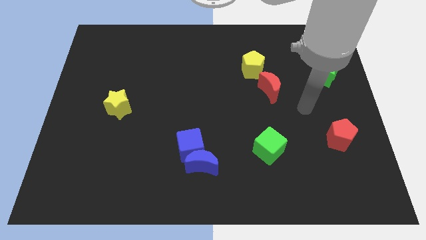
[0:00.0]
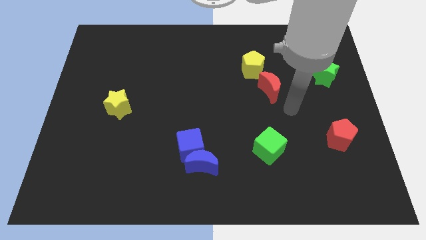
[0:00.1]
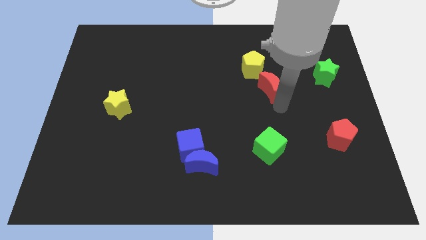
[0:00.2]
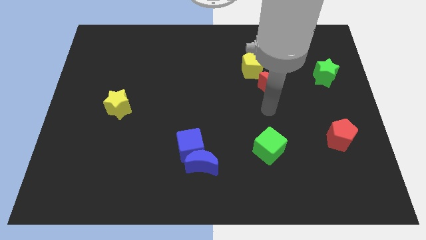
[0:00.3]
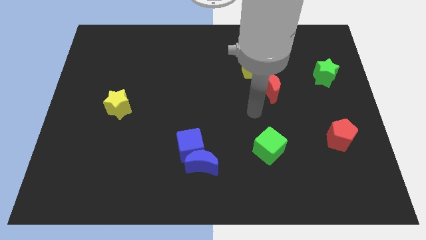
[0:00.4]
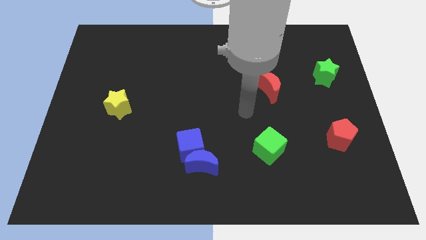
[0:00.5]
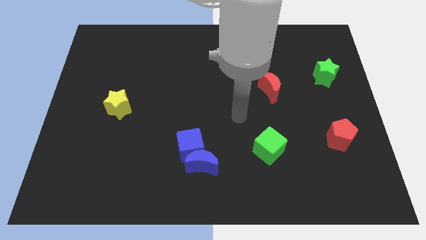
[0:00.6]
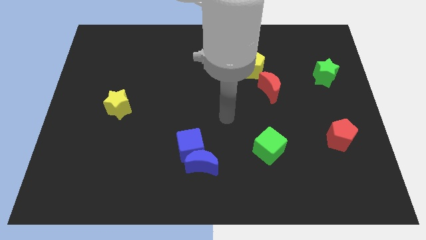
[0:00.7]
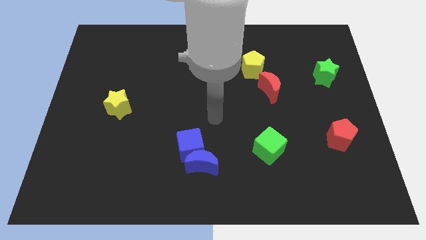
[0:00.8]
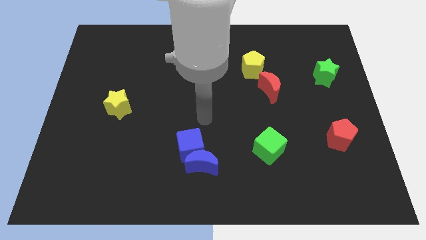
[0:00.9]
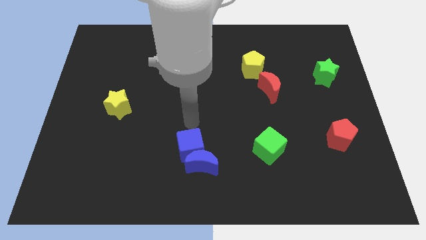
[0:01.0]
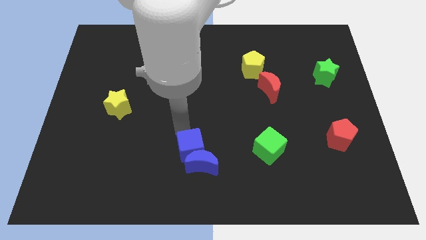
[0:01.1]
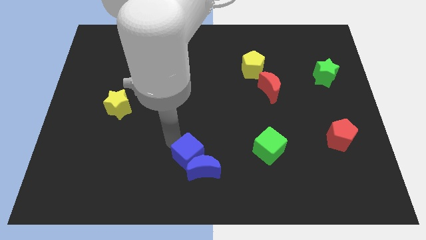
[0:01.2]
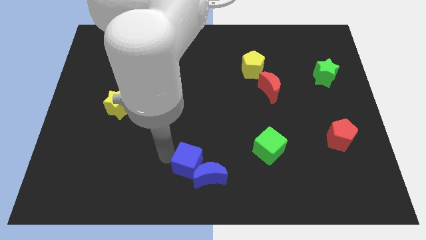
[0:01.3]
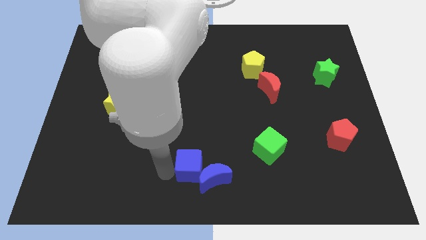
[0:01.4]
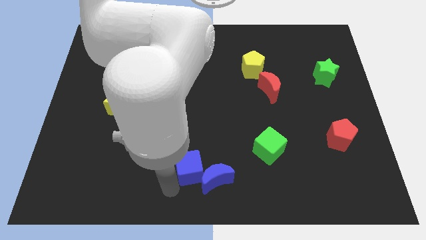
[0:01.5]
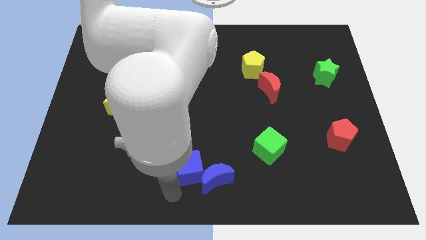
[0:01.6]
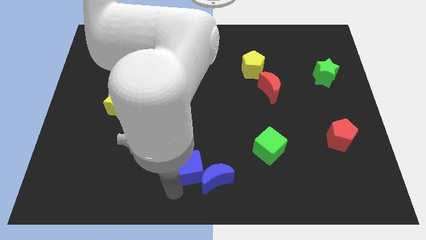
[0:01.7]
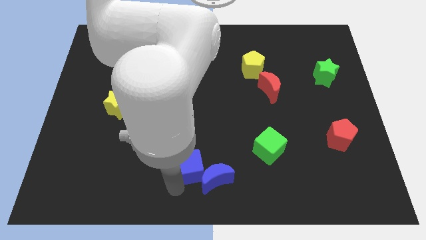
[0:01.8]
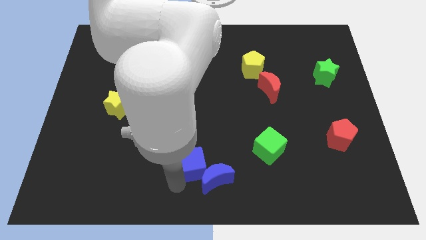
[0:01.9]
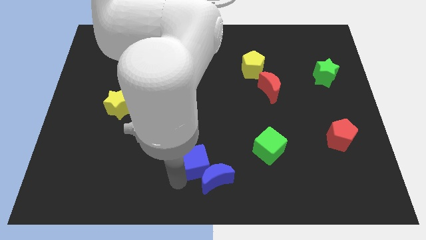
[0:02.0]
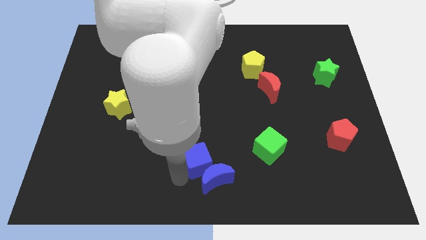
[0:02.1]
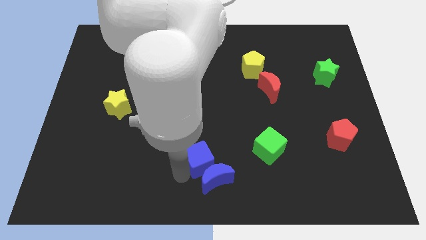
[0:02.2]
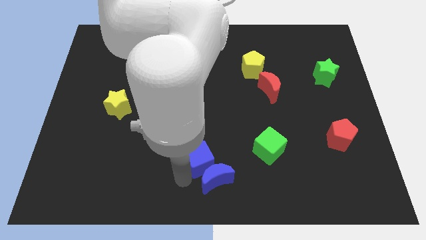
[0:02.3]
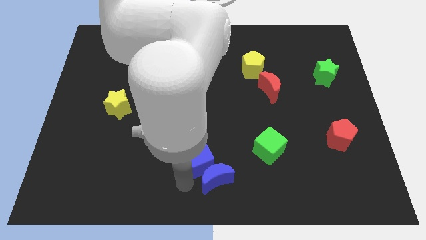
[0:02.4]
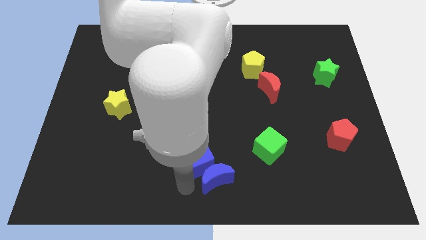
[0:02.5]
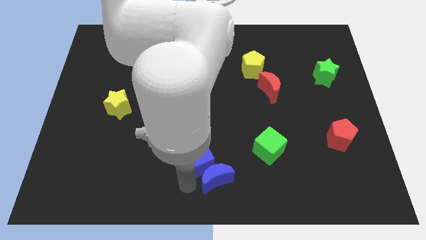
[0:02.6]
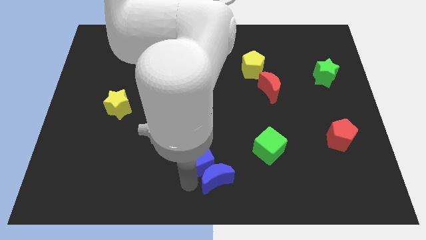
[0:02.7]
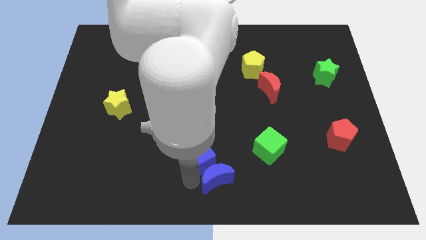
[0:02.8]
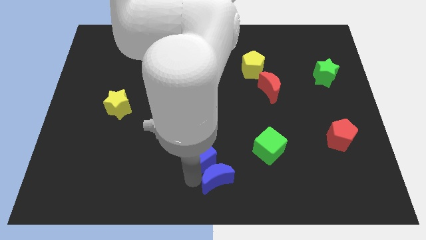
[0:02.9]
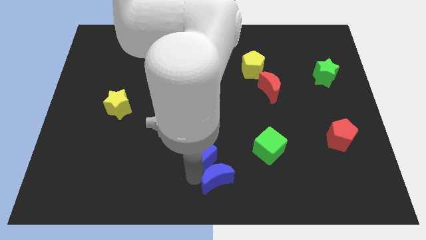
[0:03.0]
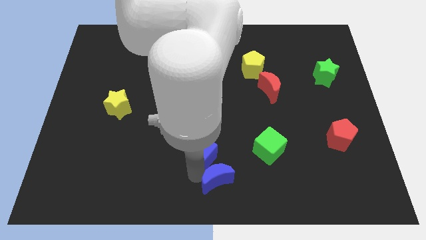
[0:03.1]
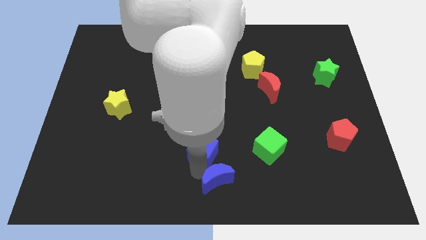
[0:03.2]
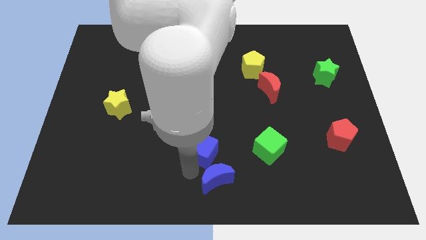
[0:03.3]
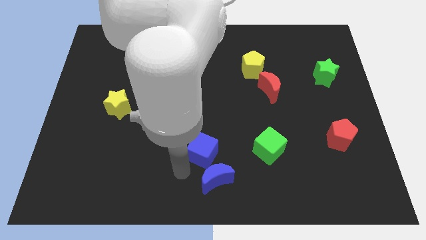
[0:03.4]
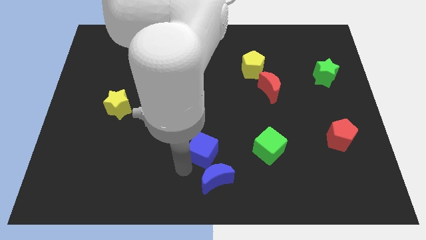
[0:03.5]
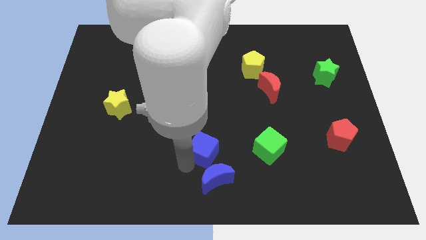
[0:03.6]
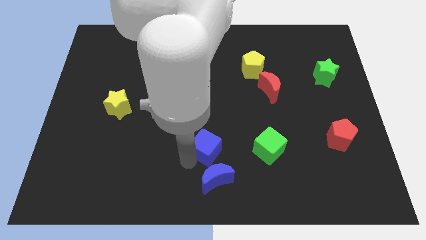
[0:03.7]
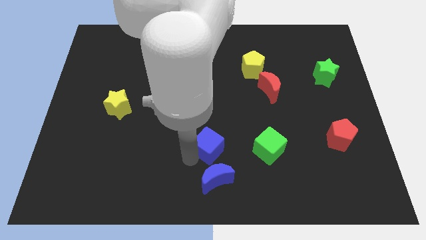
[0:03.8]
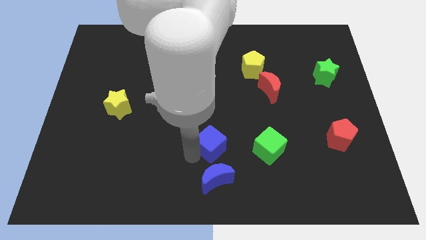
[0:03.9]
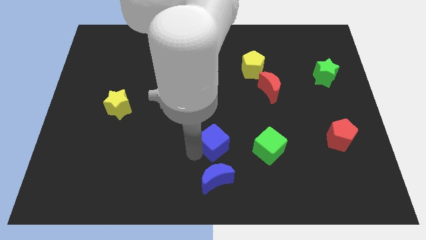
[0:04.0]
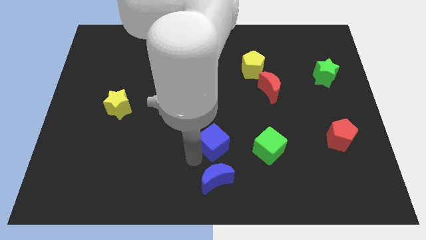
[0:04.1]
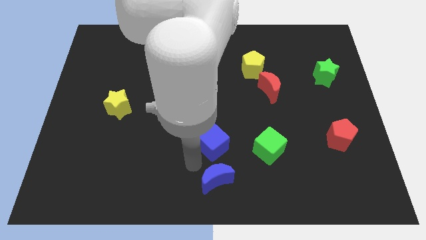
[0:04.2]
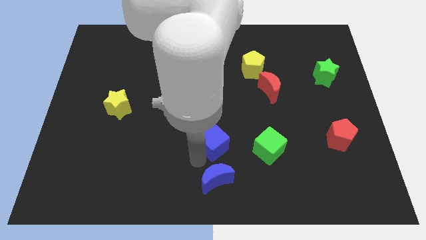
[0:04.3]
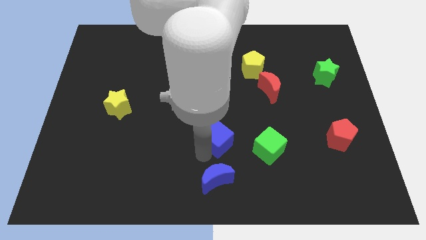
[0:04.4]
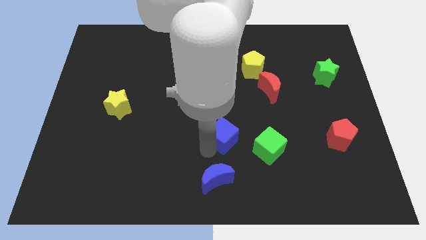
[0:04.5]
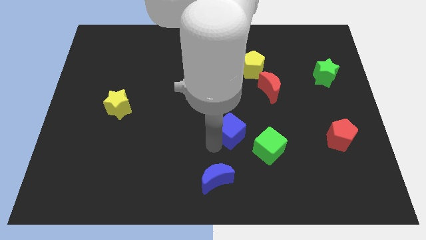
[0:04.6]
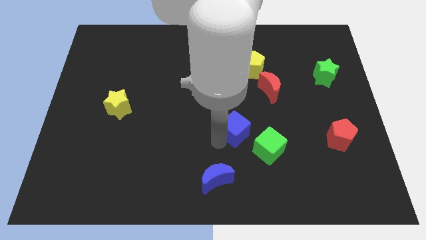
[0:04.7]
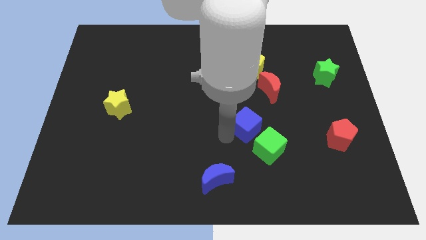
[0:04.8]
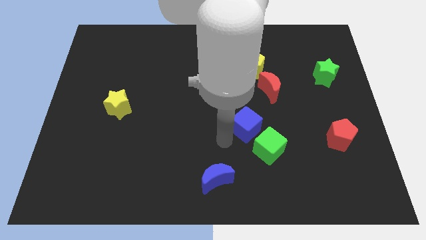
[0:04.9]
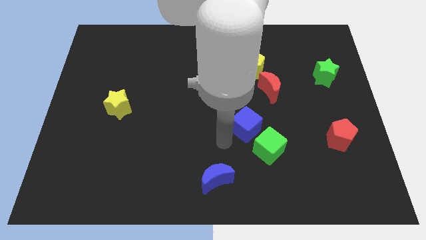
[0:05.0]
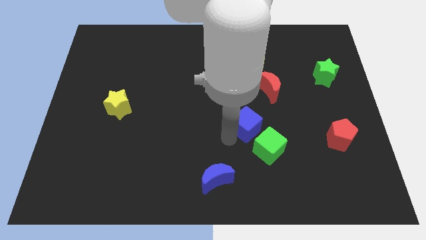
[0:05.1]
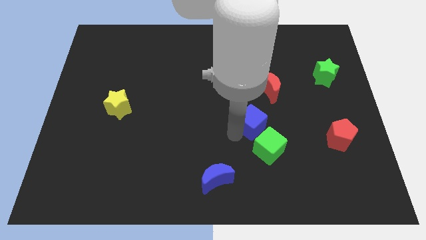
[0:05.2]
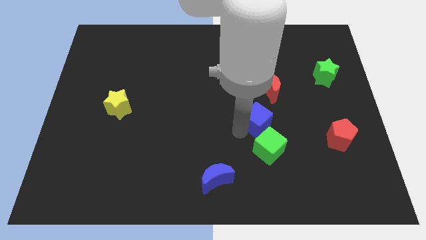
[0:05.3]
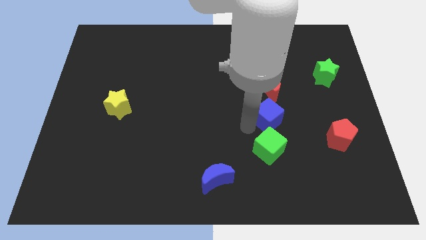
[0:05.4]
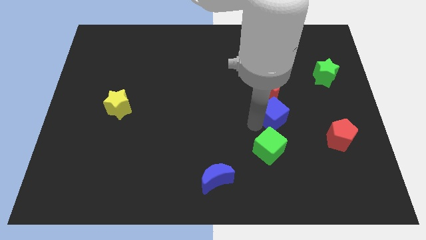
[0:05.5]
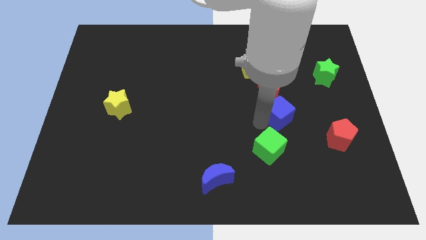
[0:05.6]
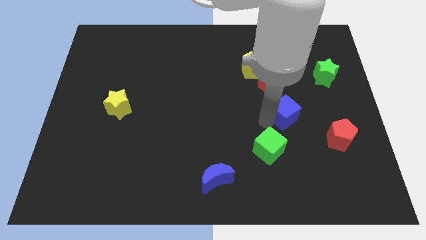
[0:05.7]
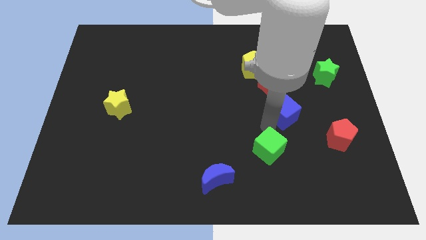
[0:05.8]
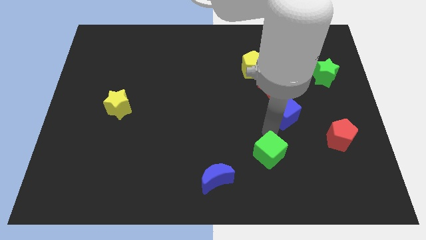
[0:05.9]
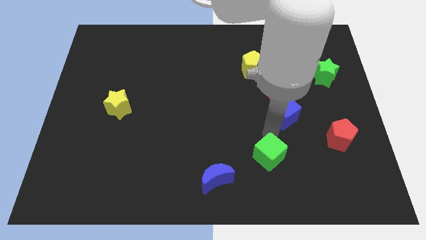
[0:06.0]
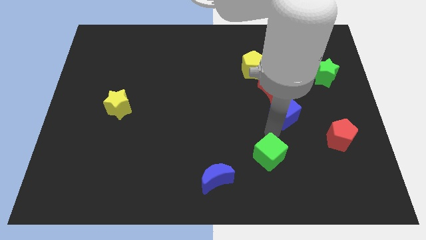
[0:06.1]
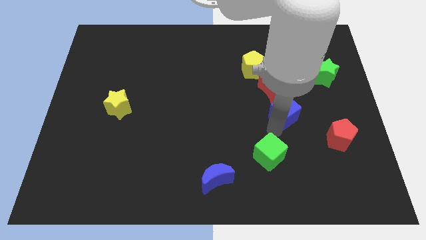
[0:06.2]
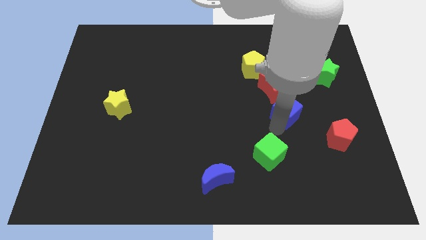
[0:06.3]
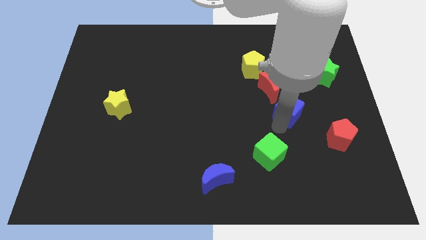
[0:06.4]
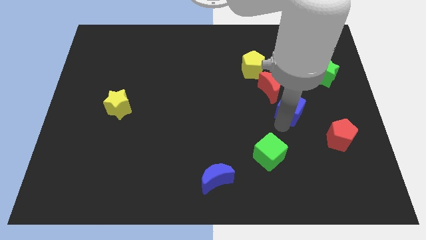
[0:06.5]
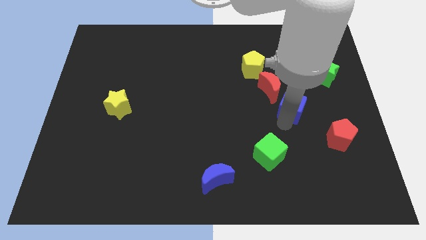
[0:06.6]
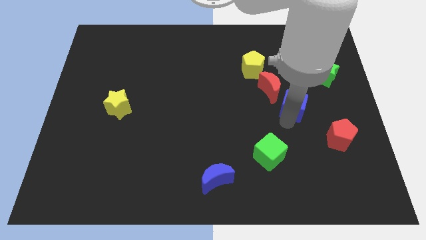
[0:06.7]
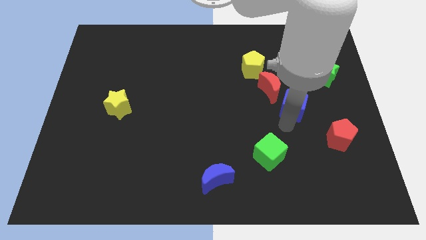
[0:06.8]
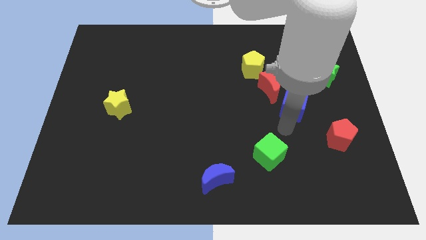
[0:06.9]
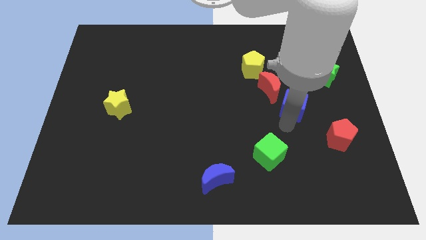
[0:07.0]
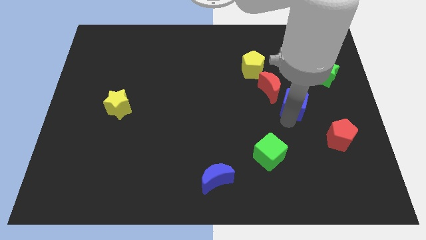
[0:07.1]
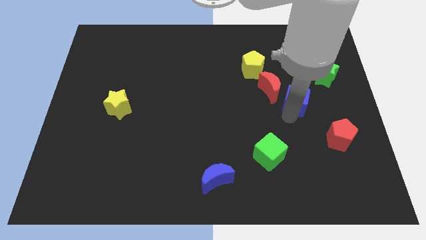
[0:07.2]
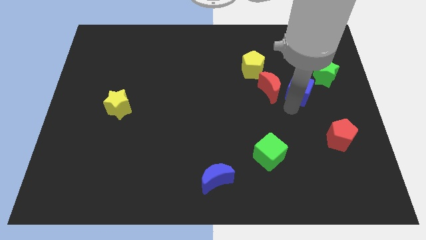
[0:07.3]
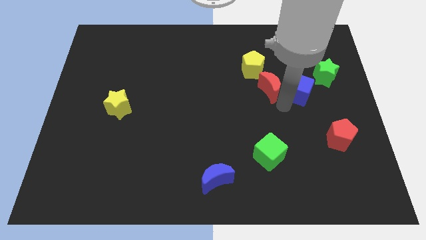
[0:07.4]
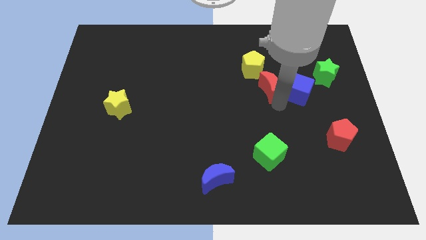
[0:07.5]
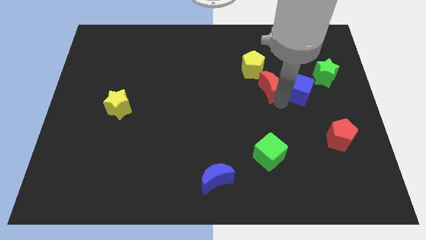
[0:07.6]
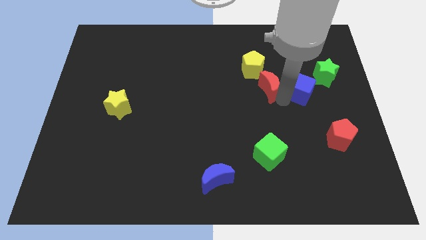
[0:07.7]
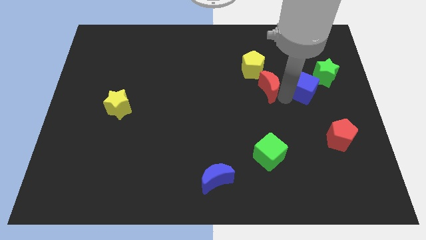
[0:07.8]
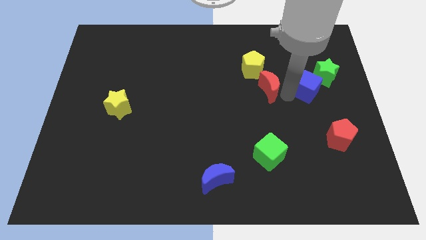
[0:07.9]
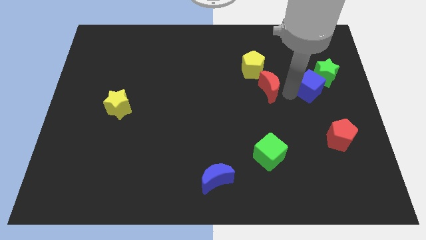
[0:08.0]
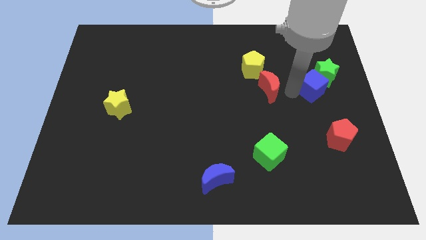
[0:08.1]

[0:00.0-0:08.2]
push the blue cube towards the green star
